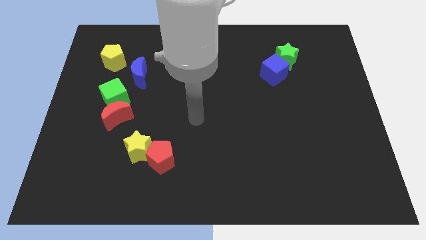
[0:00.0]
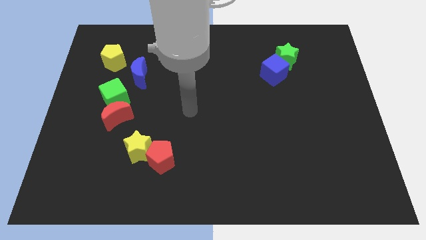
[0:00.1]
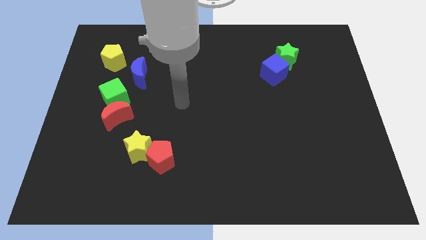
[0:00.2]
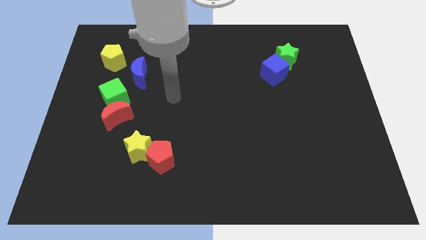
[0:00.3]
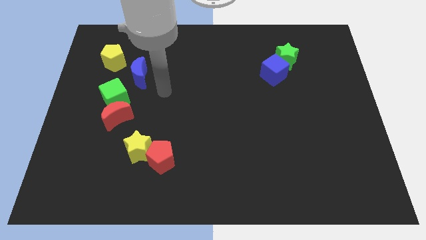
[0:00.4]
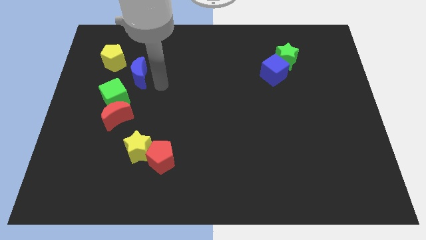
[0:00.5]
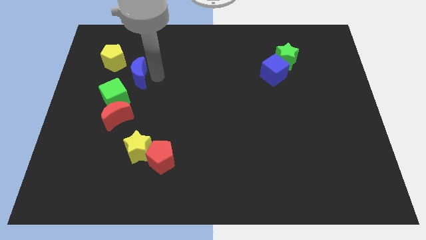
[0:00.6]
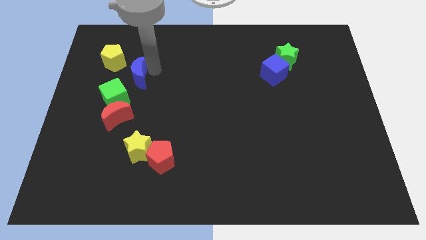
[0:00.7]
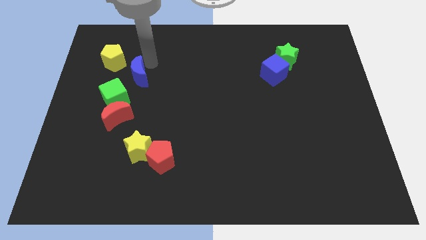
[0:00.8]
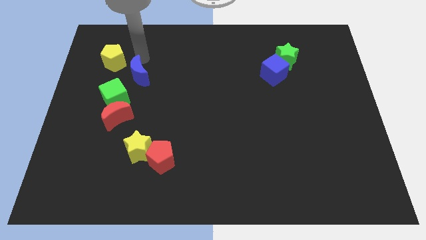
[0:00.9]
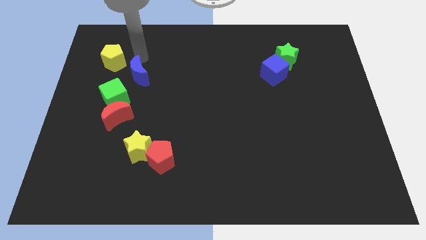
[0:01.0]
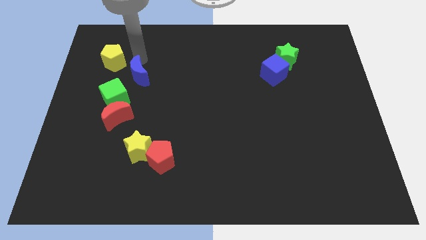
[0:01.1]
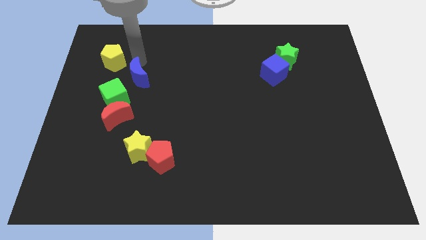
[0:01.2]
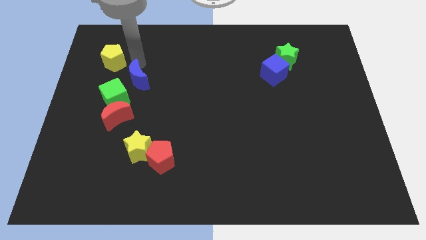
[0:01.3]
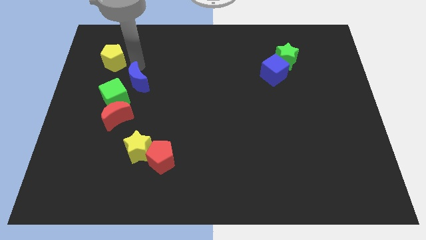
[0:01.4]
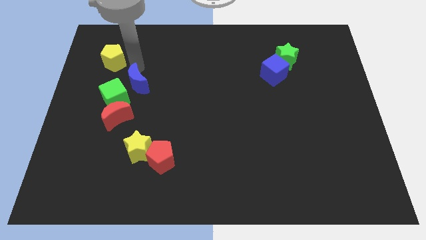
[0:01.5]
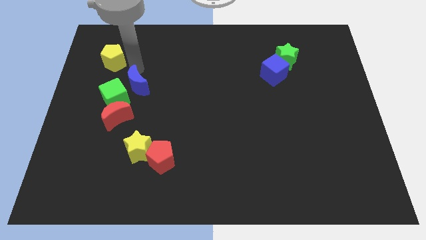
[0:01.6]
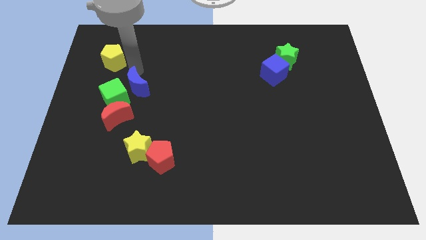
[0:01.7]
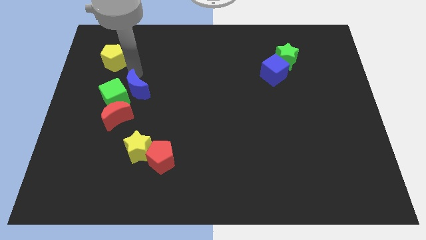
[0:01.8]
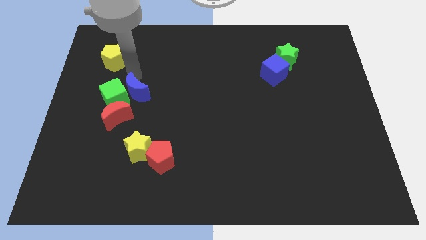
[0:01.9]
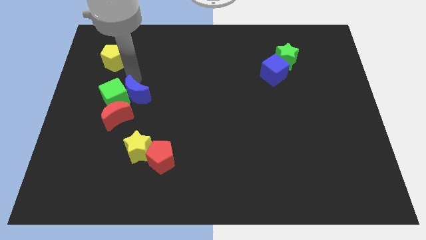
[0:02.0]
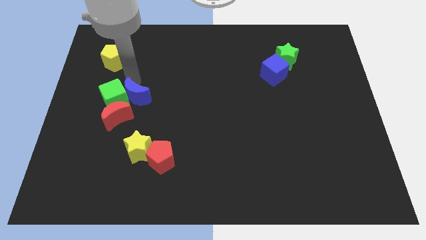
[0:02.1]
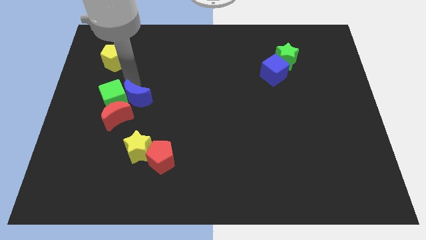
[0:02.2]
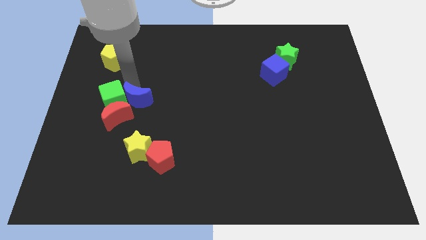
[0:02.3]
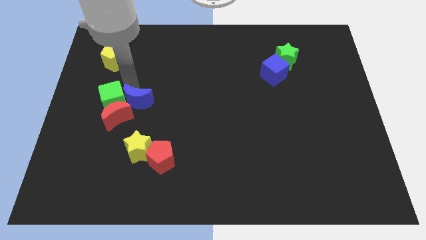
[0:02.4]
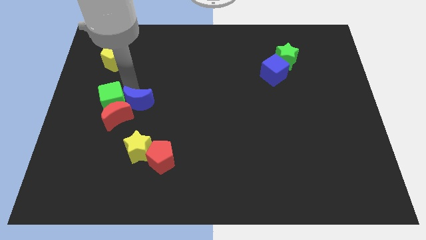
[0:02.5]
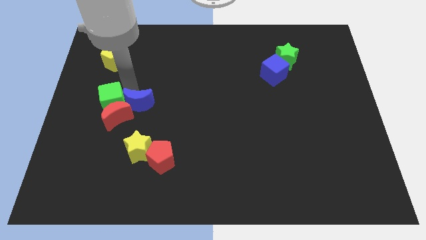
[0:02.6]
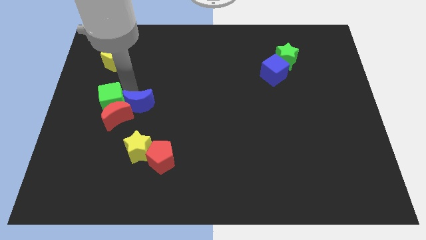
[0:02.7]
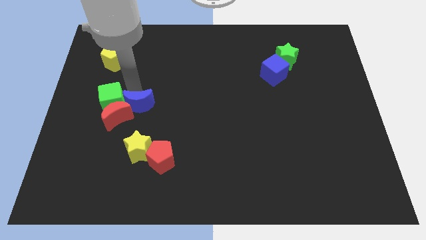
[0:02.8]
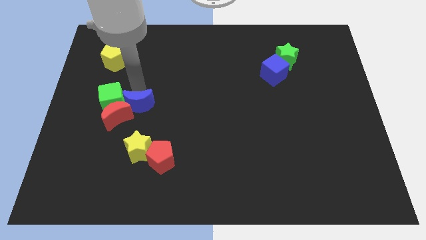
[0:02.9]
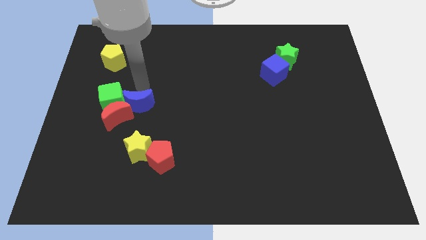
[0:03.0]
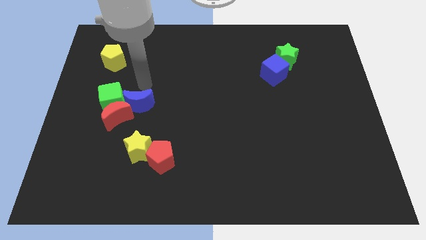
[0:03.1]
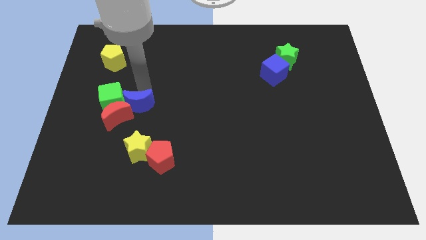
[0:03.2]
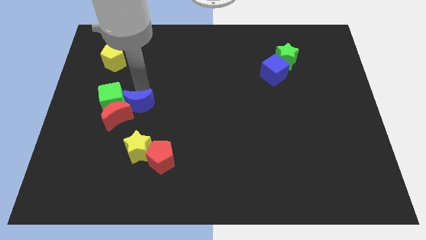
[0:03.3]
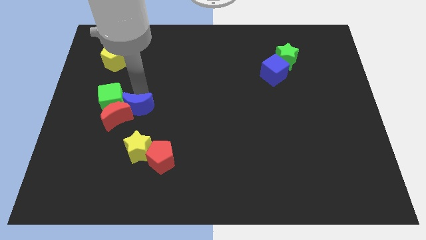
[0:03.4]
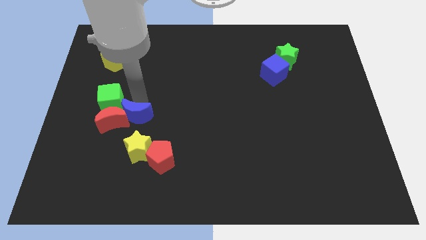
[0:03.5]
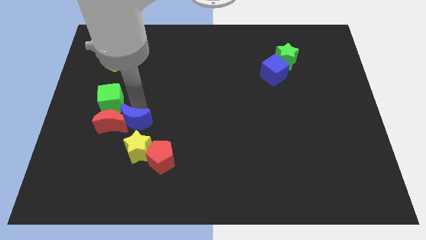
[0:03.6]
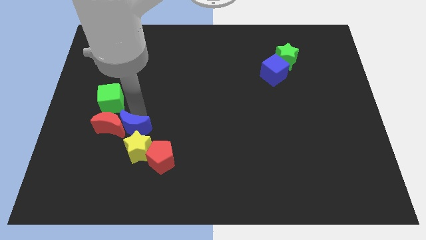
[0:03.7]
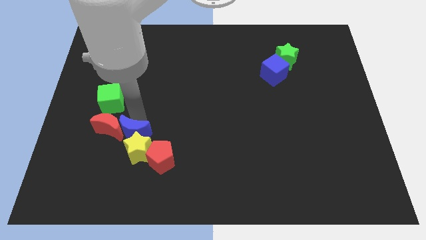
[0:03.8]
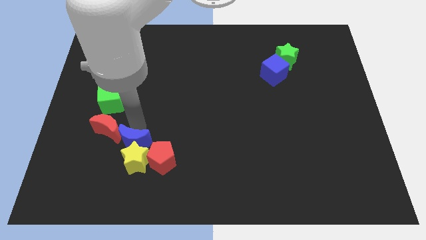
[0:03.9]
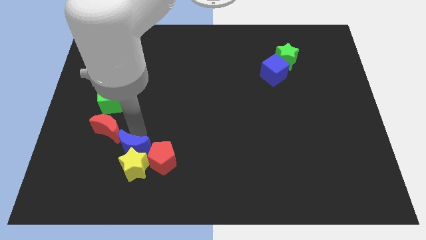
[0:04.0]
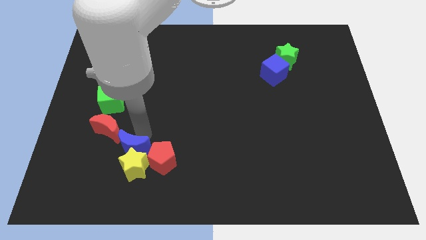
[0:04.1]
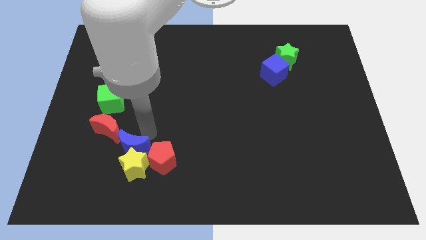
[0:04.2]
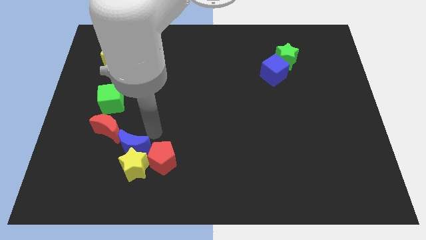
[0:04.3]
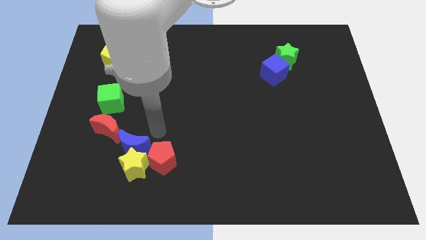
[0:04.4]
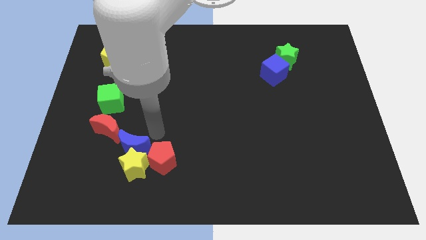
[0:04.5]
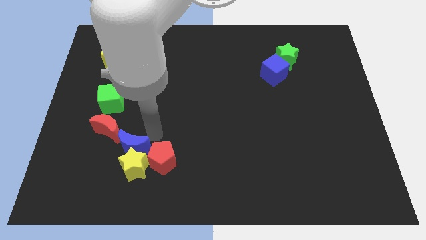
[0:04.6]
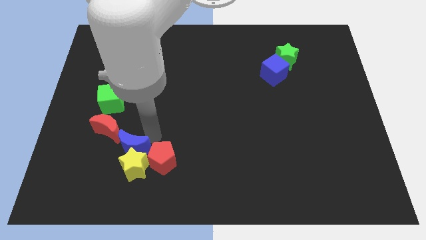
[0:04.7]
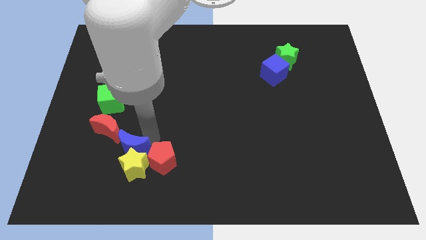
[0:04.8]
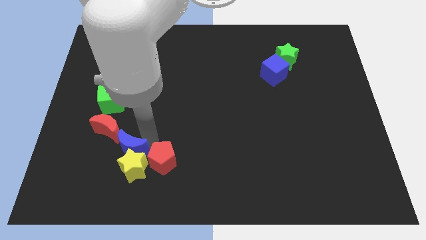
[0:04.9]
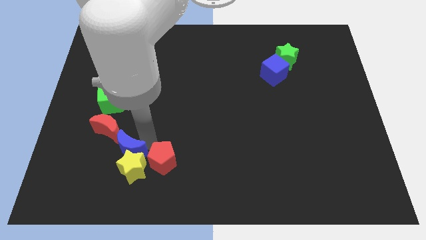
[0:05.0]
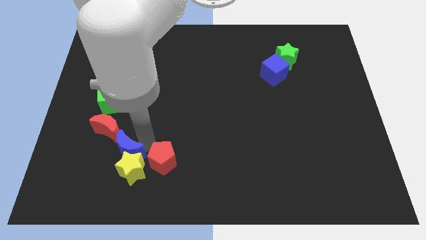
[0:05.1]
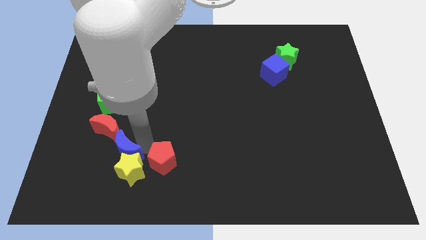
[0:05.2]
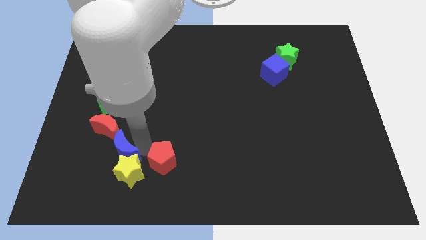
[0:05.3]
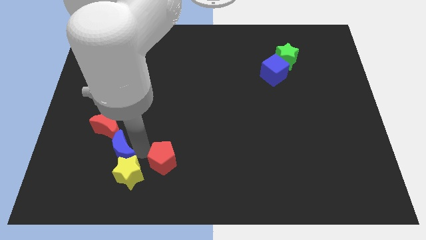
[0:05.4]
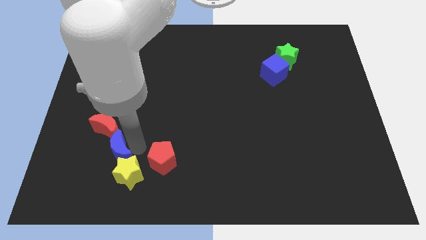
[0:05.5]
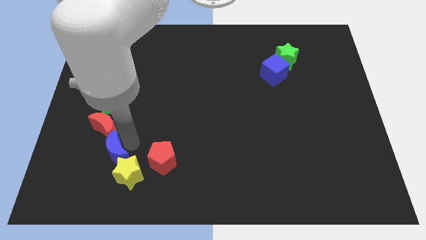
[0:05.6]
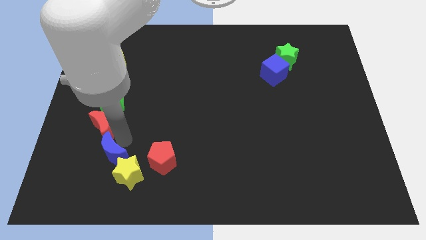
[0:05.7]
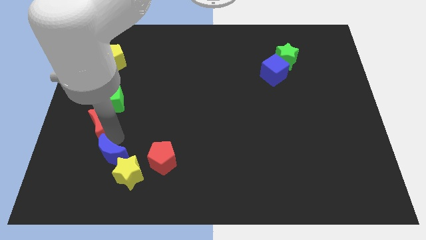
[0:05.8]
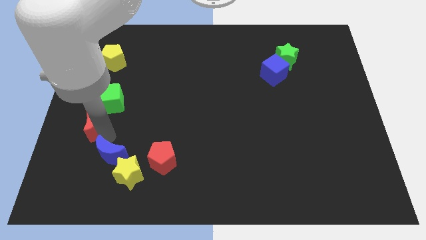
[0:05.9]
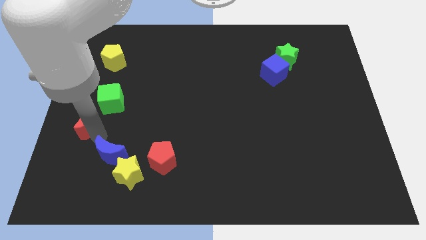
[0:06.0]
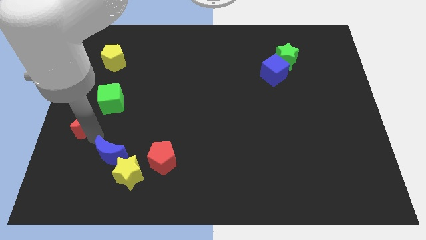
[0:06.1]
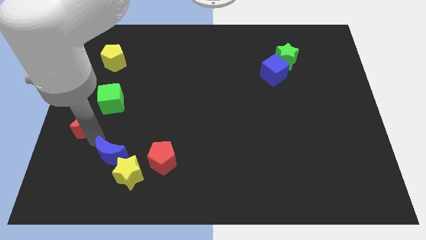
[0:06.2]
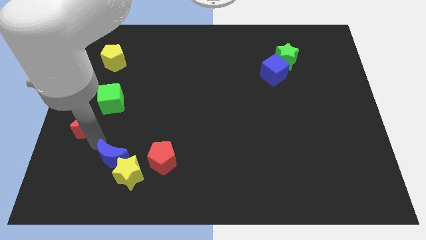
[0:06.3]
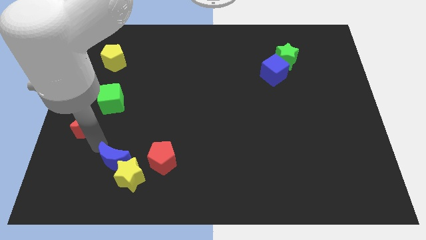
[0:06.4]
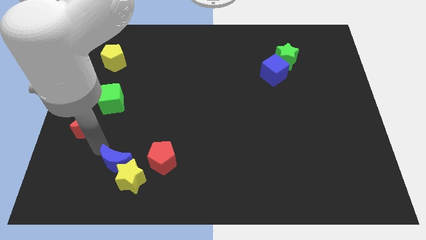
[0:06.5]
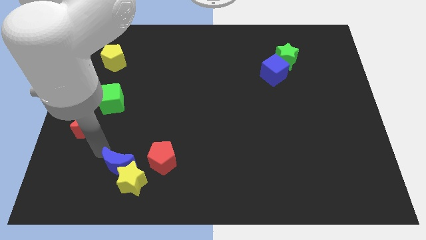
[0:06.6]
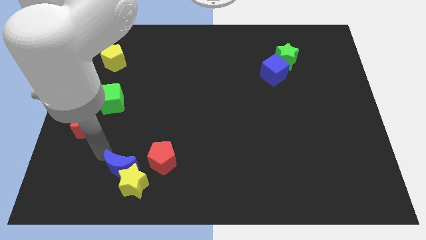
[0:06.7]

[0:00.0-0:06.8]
push the blue moon to the bottom left of the red pentagon

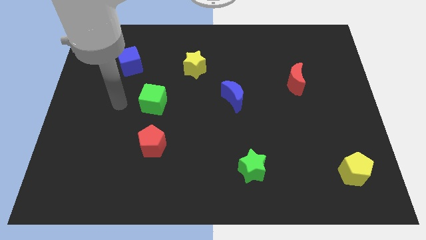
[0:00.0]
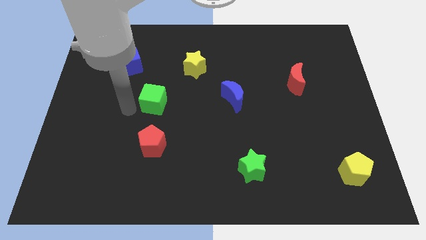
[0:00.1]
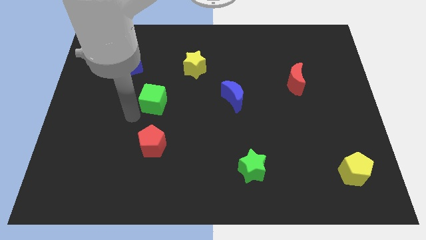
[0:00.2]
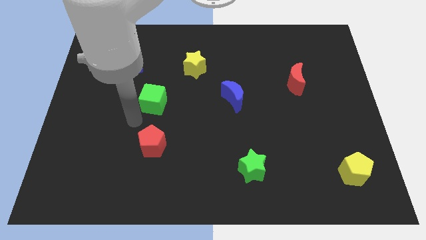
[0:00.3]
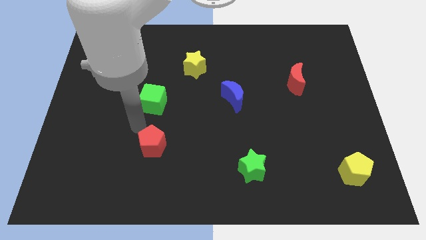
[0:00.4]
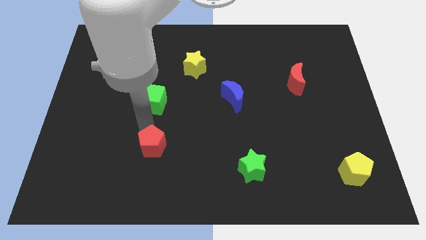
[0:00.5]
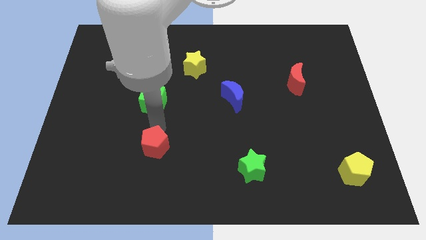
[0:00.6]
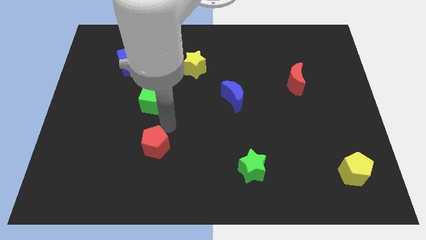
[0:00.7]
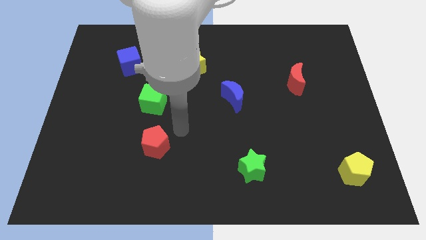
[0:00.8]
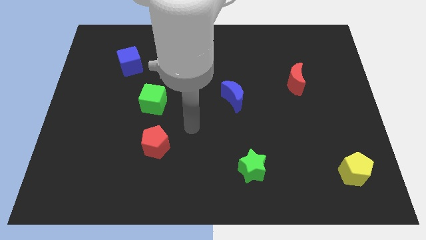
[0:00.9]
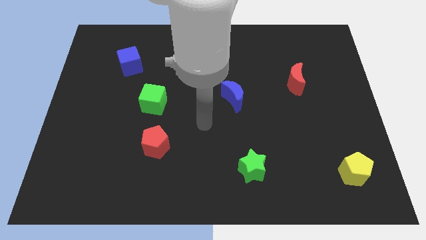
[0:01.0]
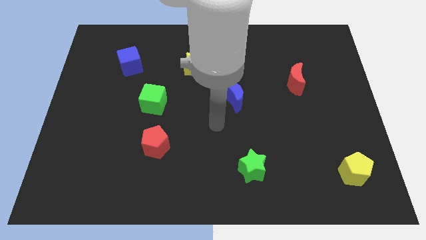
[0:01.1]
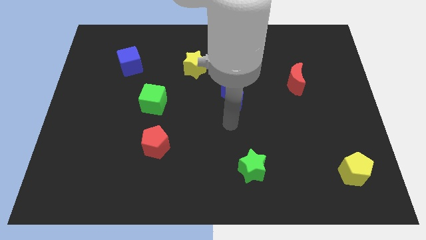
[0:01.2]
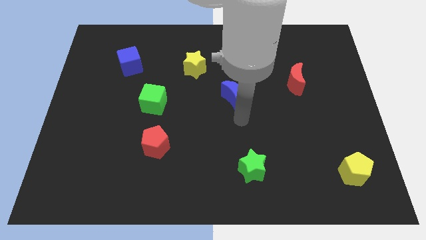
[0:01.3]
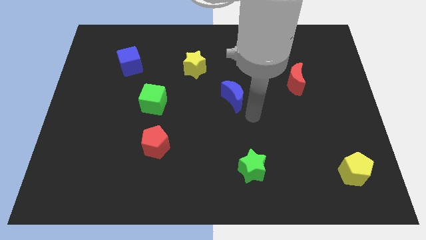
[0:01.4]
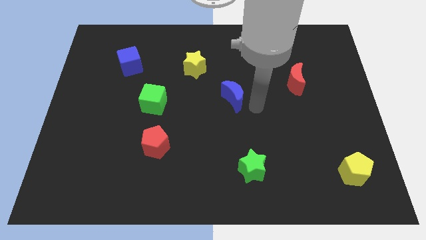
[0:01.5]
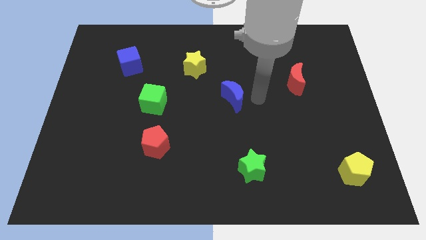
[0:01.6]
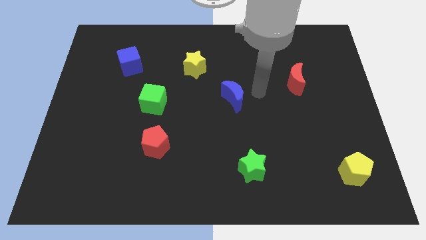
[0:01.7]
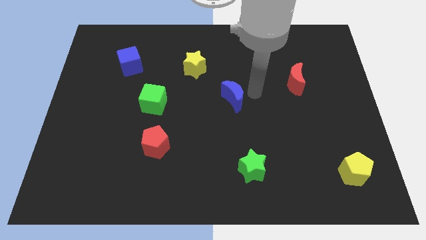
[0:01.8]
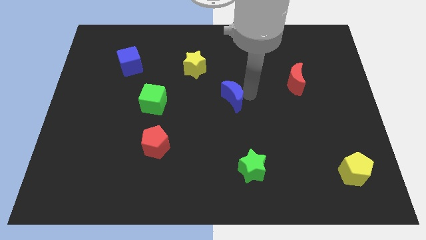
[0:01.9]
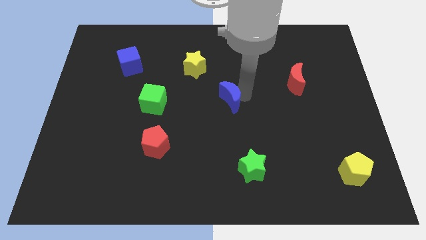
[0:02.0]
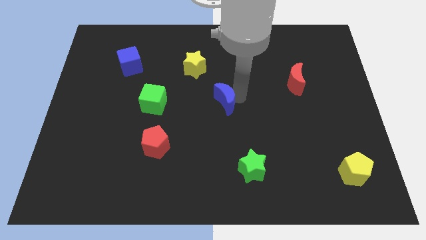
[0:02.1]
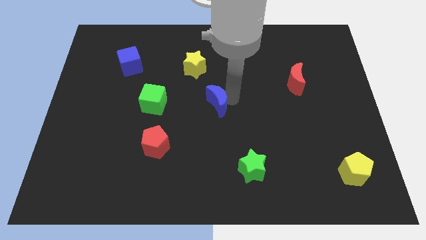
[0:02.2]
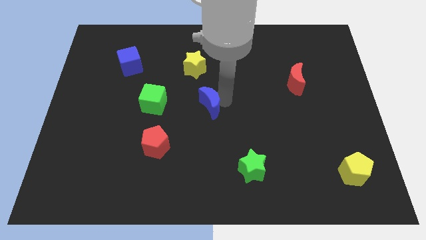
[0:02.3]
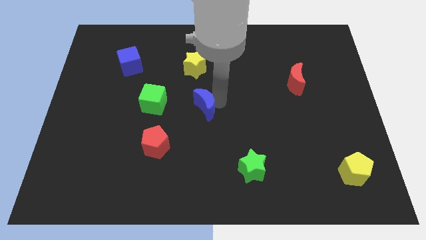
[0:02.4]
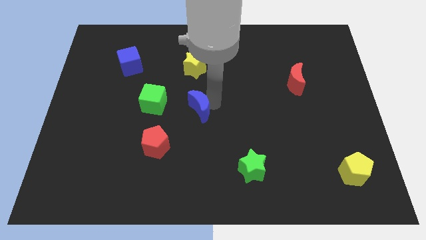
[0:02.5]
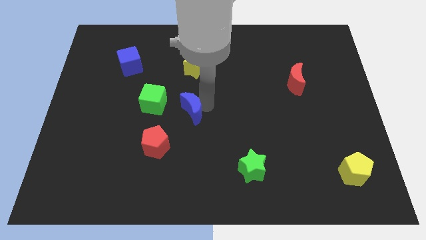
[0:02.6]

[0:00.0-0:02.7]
slide the blue moon to the bottom right side of the green cube
